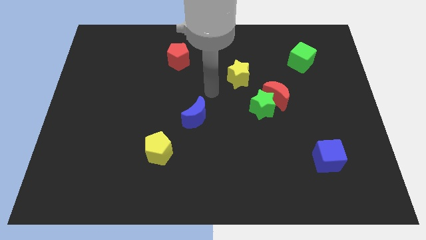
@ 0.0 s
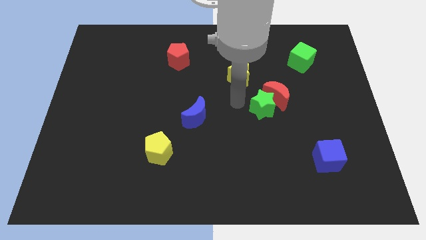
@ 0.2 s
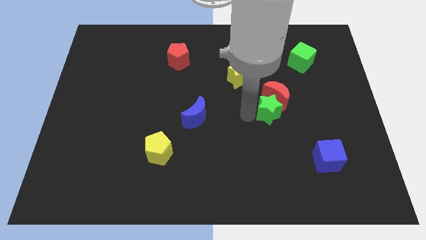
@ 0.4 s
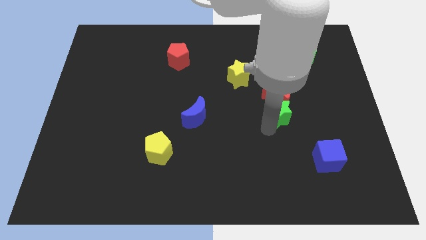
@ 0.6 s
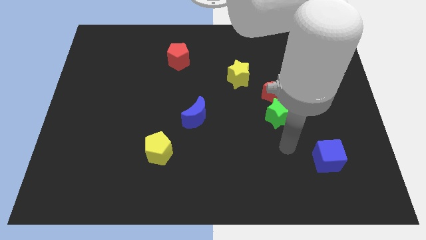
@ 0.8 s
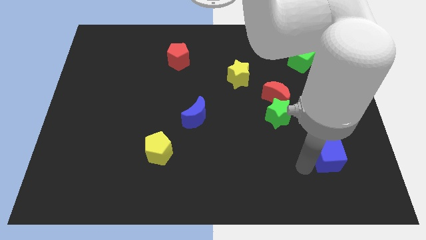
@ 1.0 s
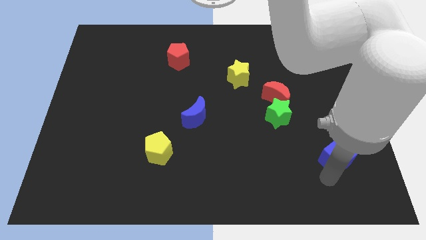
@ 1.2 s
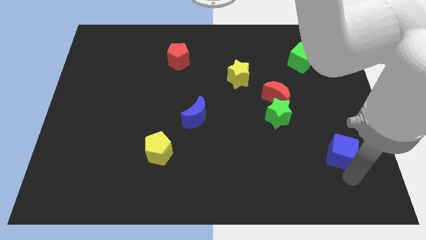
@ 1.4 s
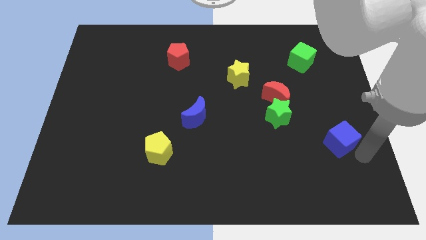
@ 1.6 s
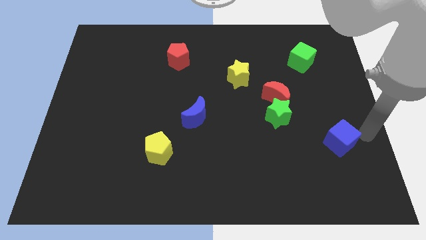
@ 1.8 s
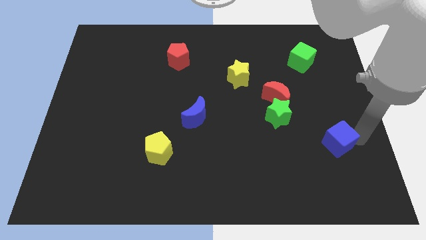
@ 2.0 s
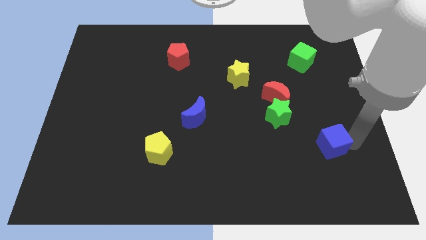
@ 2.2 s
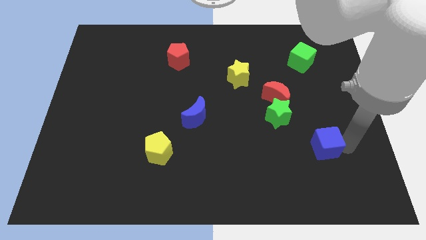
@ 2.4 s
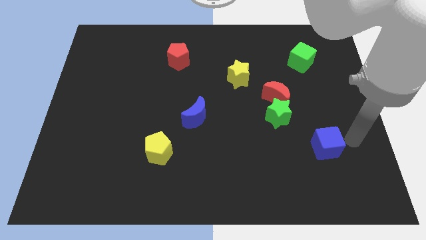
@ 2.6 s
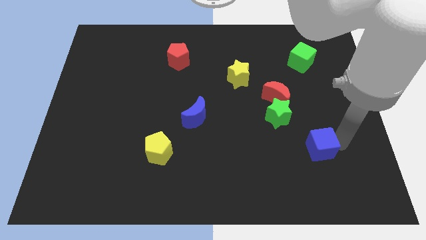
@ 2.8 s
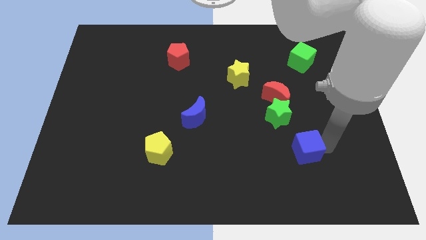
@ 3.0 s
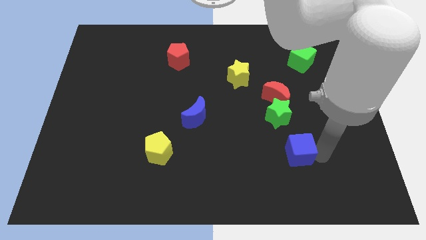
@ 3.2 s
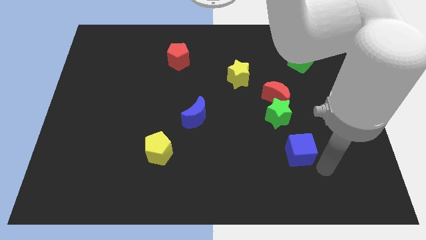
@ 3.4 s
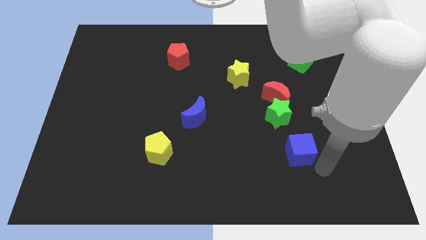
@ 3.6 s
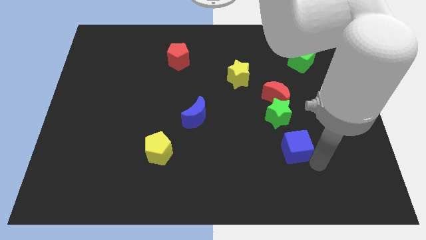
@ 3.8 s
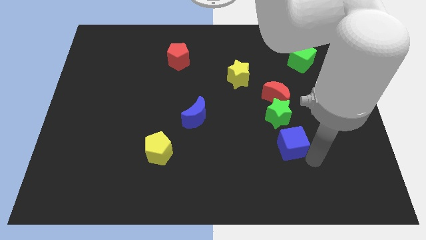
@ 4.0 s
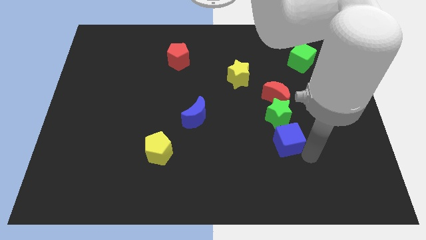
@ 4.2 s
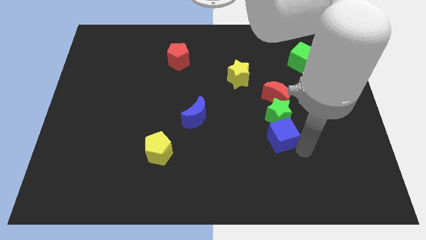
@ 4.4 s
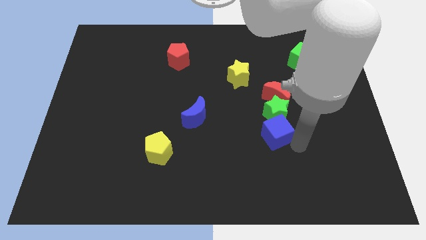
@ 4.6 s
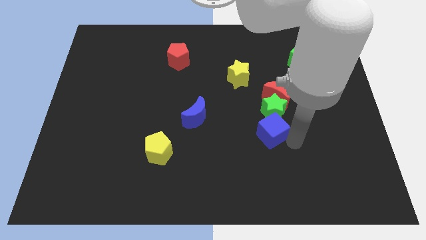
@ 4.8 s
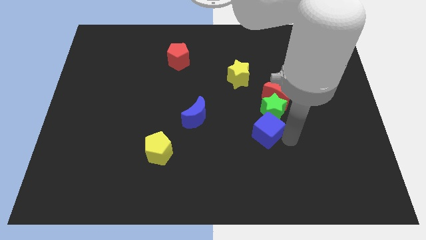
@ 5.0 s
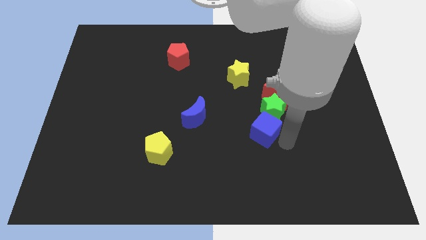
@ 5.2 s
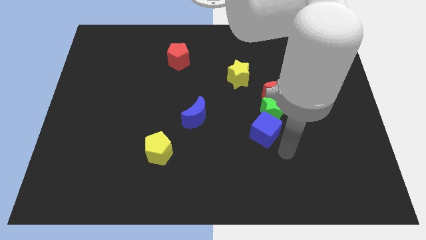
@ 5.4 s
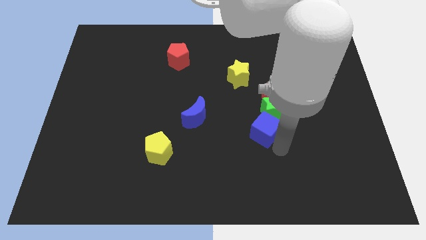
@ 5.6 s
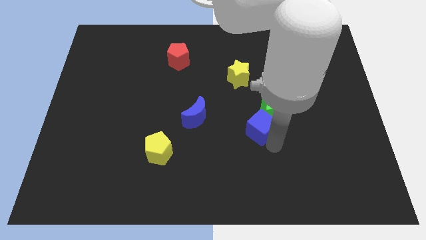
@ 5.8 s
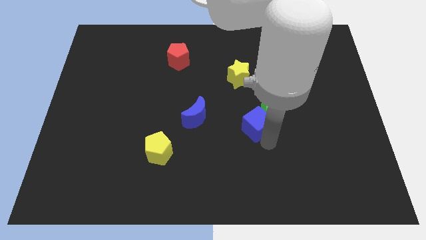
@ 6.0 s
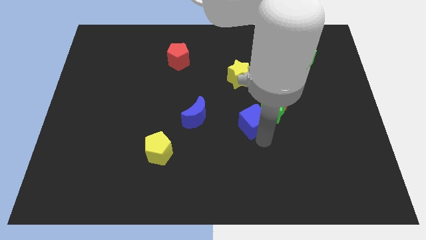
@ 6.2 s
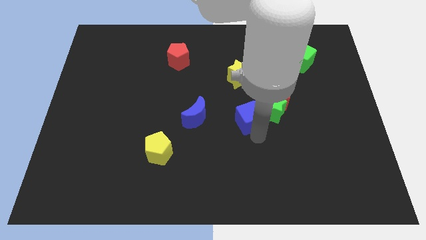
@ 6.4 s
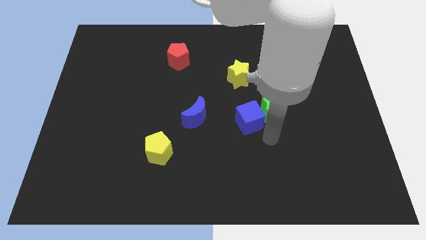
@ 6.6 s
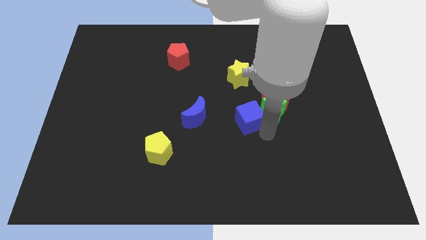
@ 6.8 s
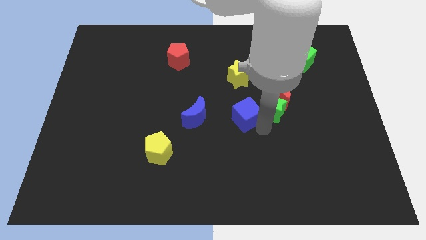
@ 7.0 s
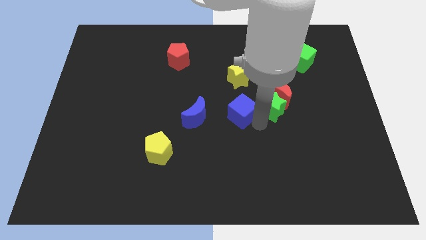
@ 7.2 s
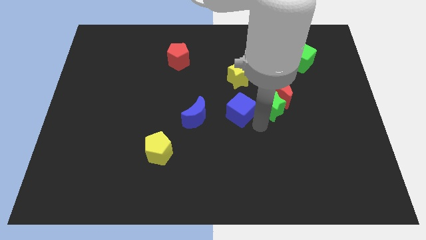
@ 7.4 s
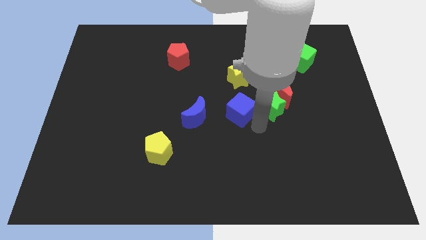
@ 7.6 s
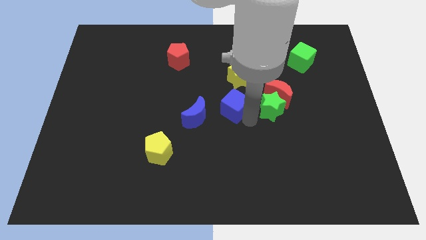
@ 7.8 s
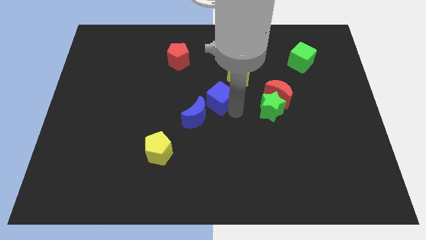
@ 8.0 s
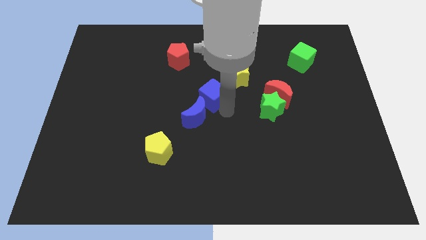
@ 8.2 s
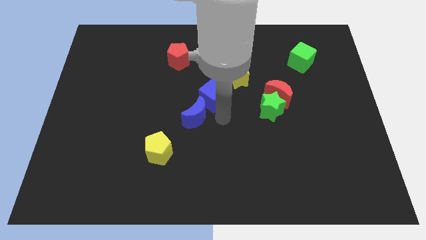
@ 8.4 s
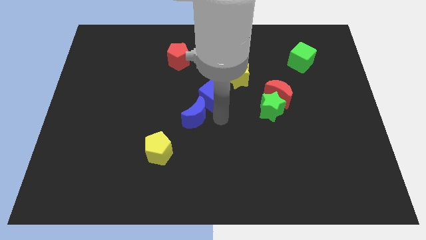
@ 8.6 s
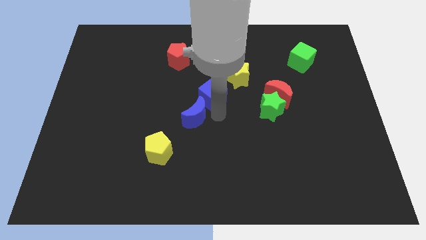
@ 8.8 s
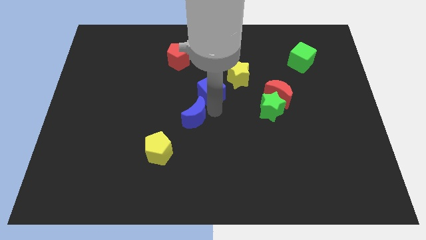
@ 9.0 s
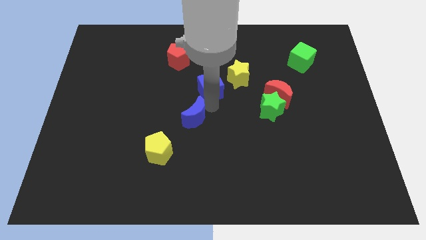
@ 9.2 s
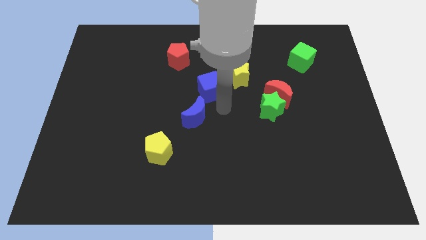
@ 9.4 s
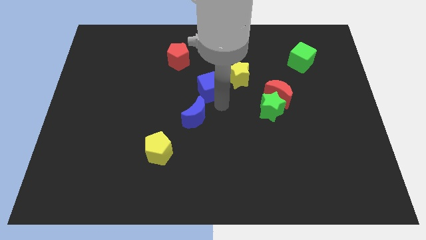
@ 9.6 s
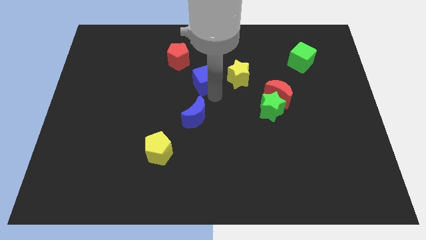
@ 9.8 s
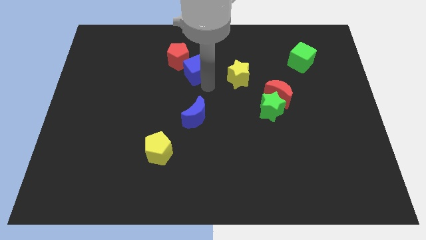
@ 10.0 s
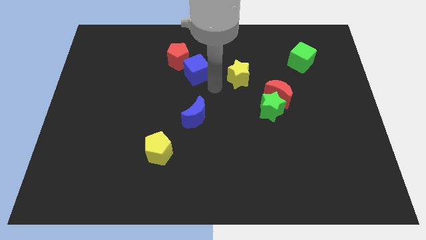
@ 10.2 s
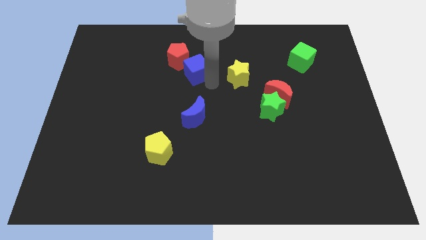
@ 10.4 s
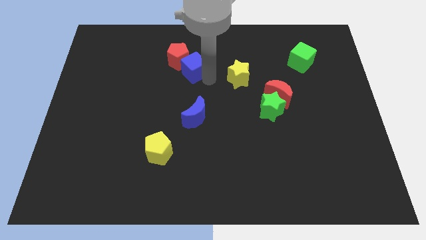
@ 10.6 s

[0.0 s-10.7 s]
push the blue cube towards the red pentagon

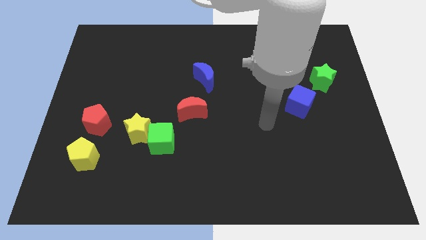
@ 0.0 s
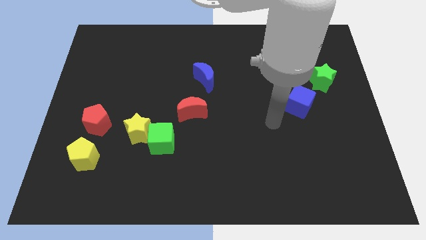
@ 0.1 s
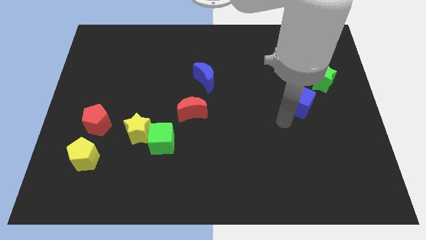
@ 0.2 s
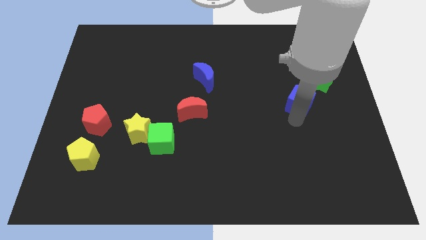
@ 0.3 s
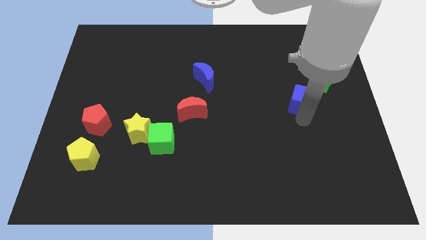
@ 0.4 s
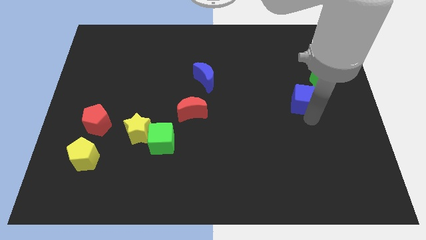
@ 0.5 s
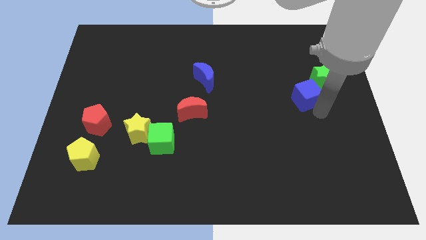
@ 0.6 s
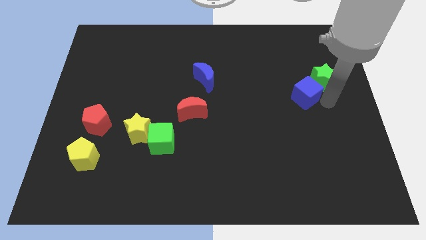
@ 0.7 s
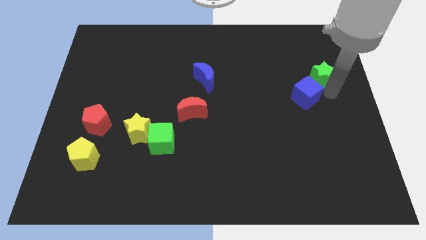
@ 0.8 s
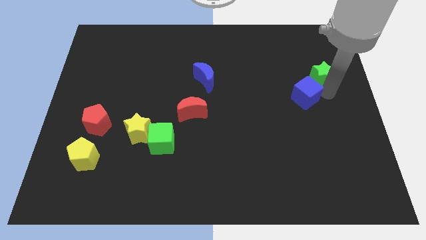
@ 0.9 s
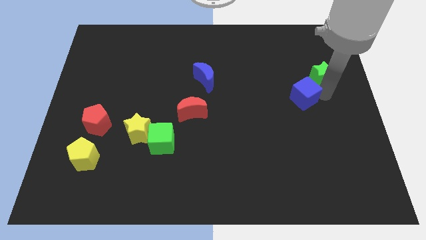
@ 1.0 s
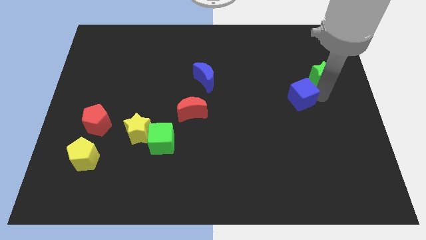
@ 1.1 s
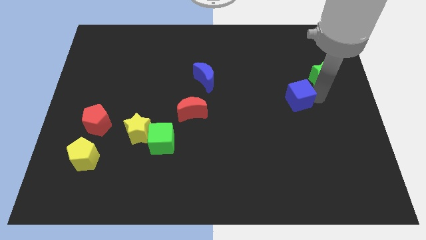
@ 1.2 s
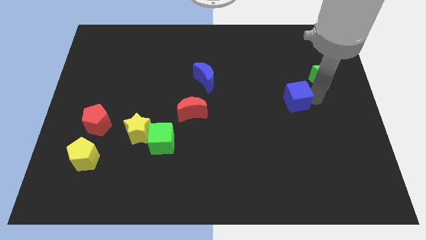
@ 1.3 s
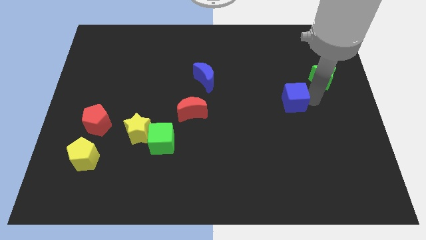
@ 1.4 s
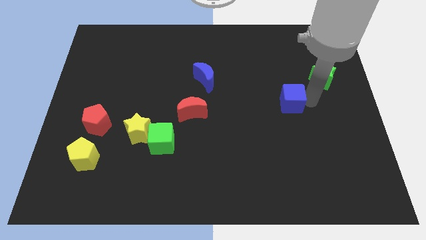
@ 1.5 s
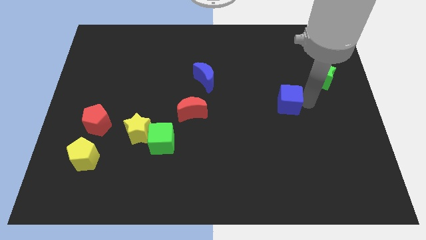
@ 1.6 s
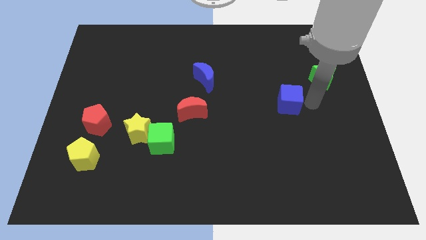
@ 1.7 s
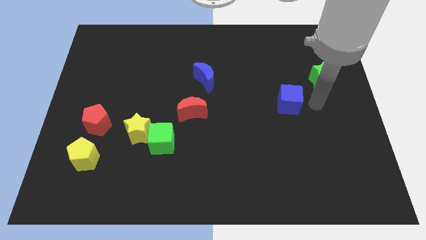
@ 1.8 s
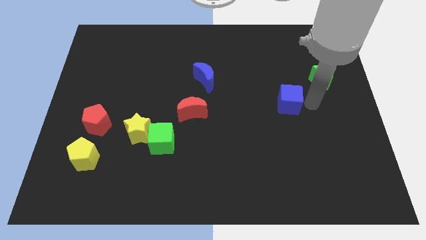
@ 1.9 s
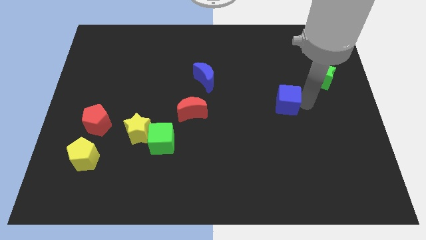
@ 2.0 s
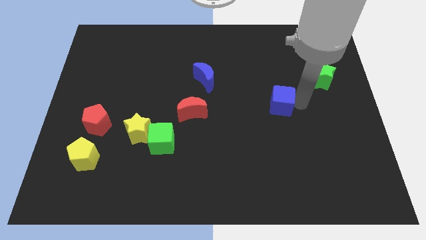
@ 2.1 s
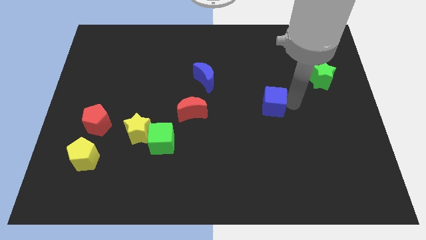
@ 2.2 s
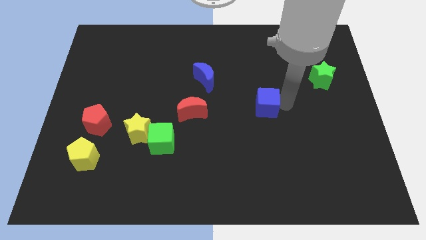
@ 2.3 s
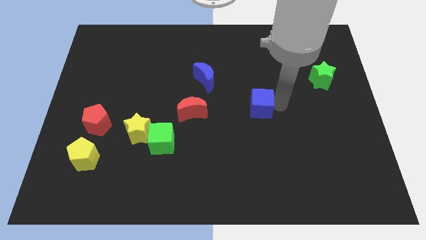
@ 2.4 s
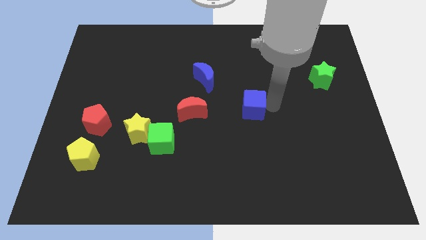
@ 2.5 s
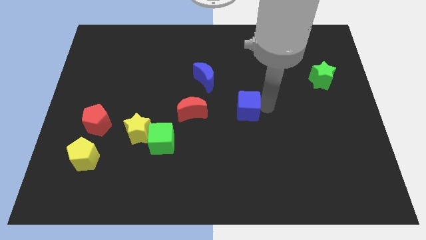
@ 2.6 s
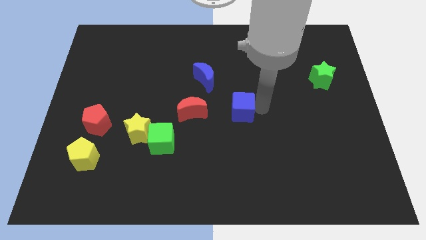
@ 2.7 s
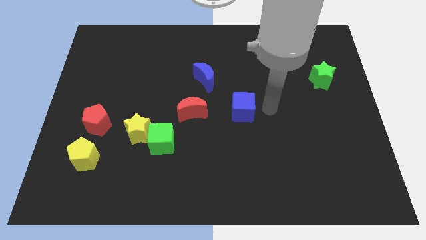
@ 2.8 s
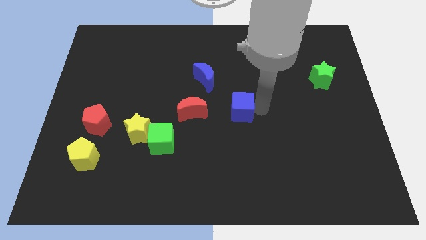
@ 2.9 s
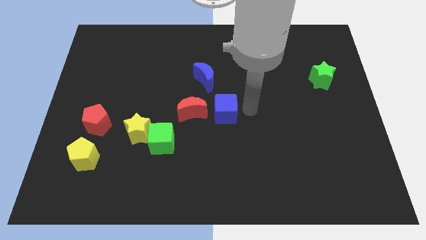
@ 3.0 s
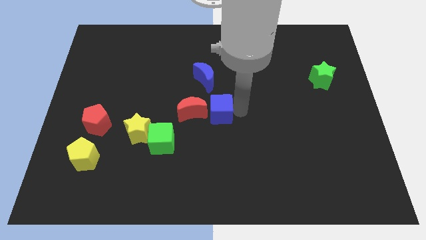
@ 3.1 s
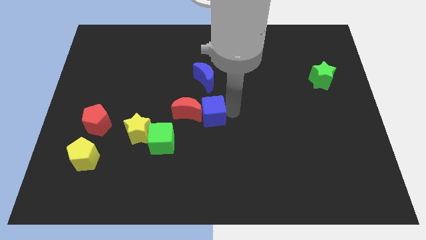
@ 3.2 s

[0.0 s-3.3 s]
push the blue cube next to the red moon
